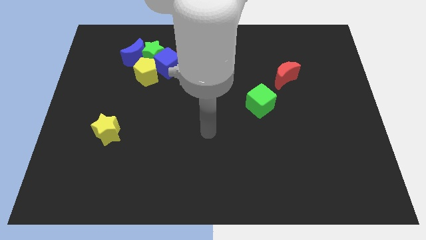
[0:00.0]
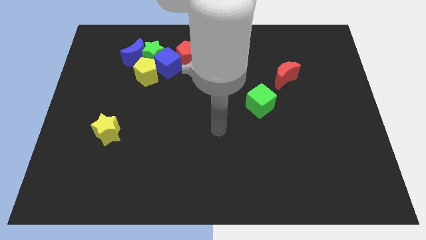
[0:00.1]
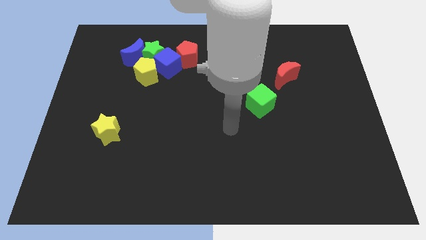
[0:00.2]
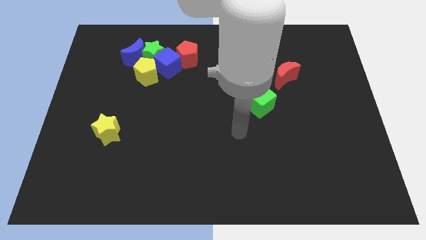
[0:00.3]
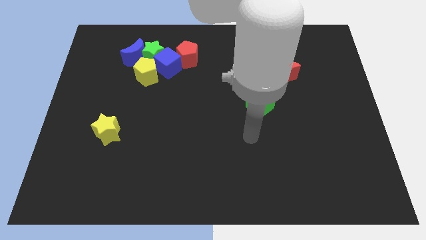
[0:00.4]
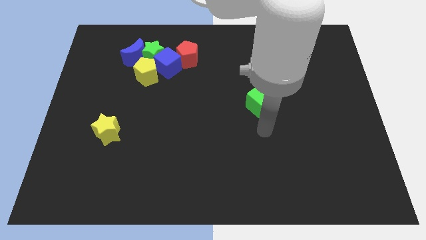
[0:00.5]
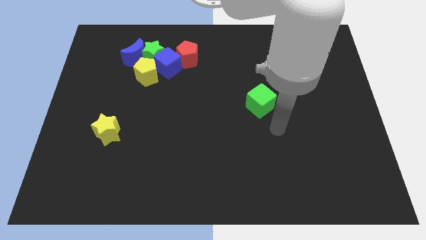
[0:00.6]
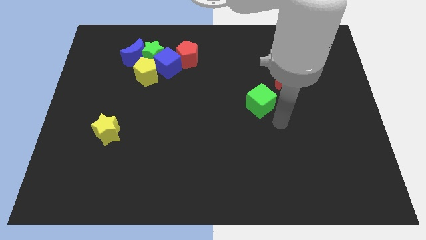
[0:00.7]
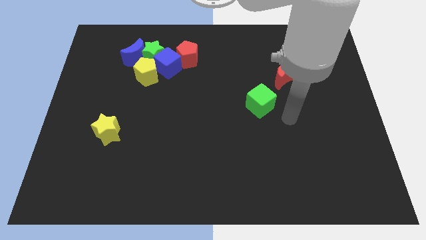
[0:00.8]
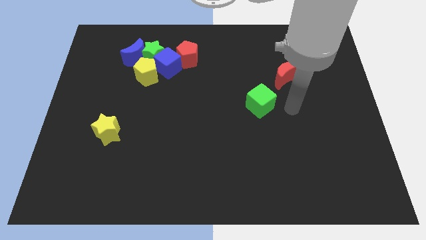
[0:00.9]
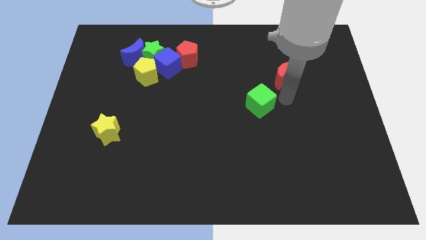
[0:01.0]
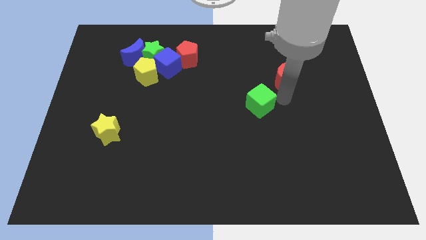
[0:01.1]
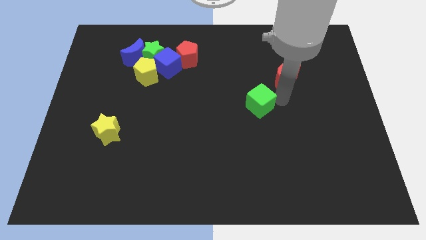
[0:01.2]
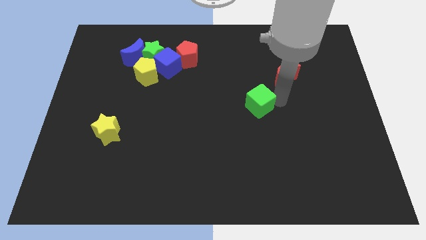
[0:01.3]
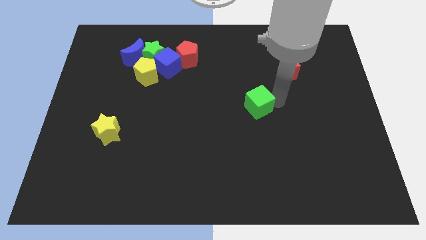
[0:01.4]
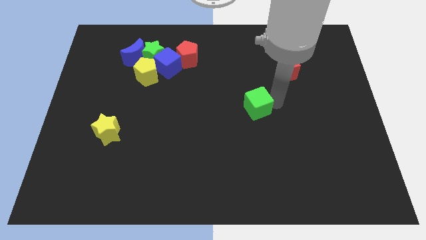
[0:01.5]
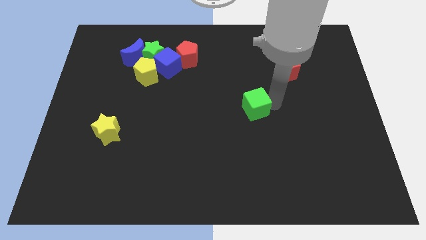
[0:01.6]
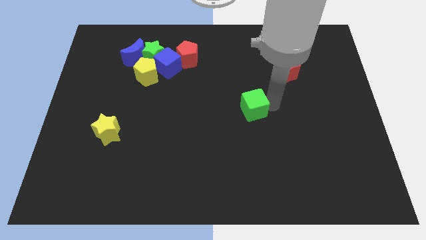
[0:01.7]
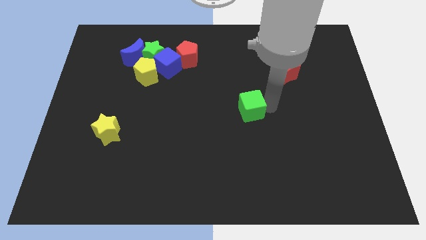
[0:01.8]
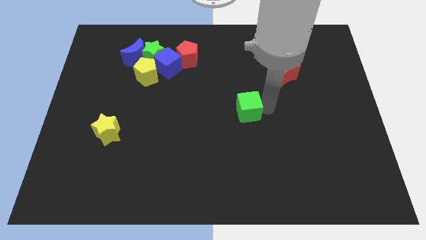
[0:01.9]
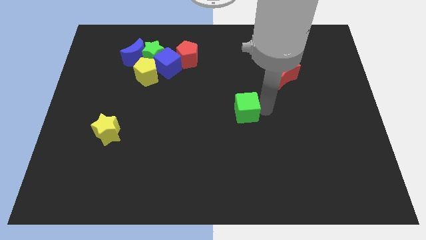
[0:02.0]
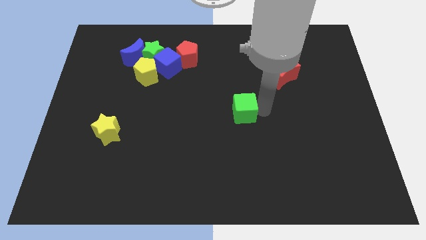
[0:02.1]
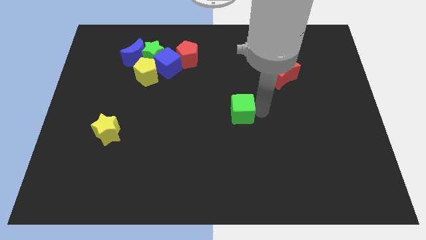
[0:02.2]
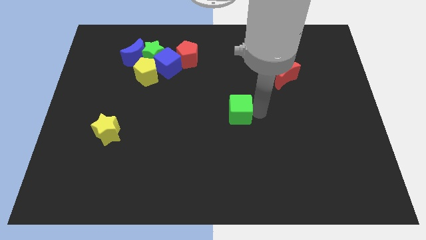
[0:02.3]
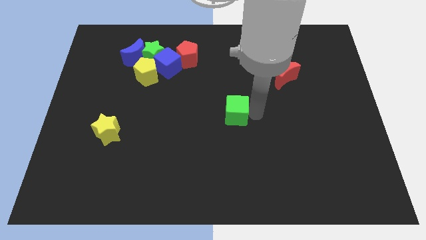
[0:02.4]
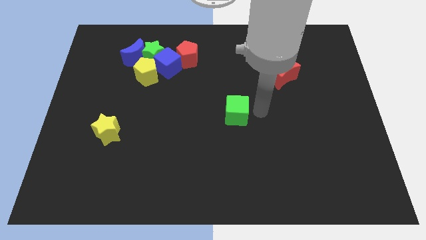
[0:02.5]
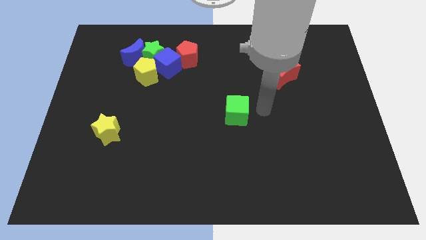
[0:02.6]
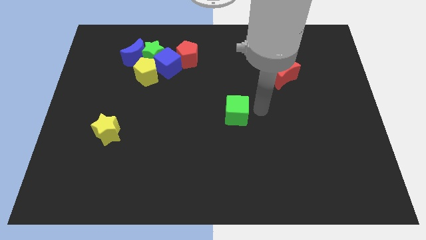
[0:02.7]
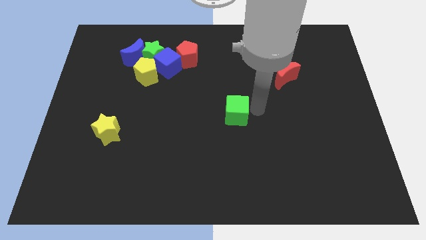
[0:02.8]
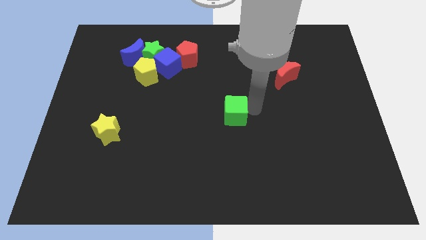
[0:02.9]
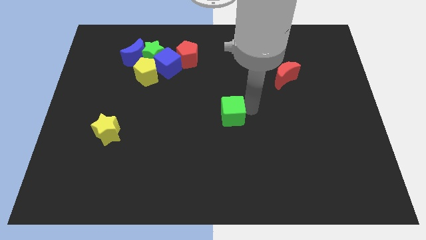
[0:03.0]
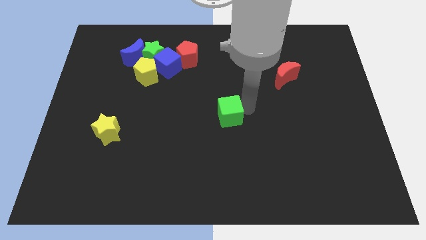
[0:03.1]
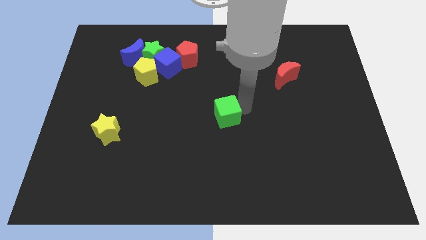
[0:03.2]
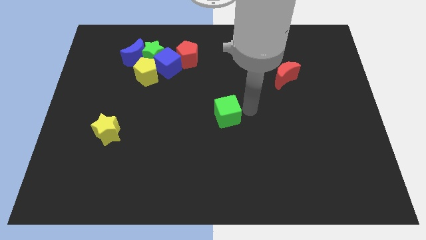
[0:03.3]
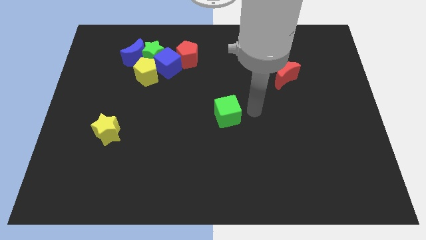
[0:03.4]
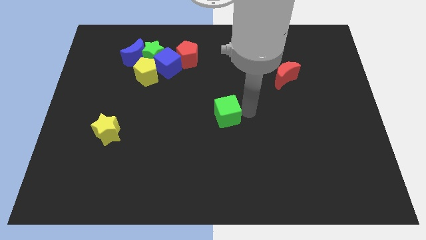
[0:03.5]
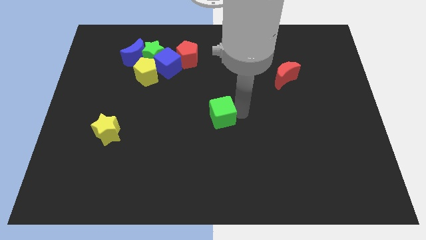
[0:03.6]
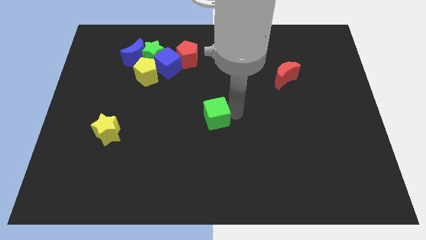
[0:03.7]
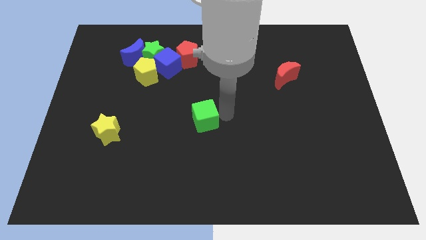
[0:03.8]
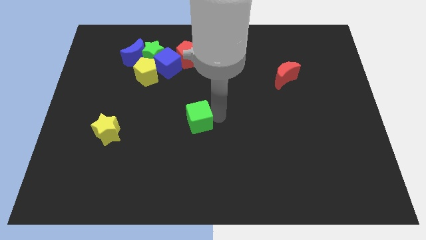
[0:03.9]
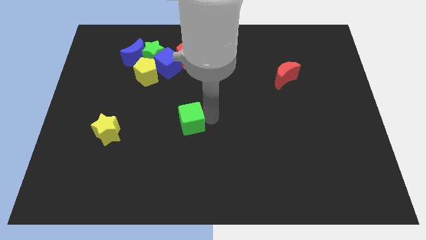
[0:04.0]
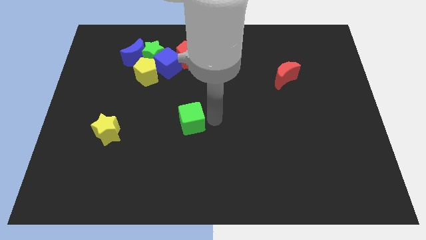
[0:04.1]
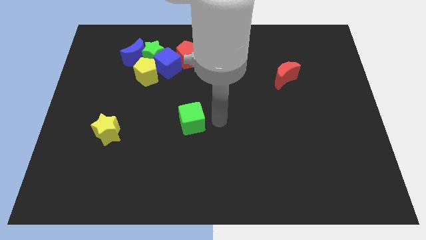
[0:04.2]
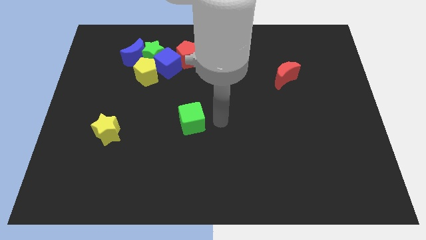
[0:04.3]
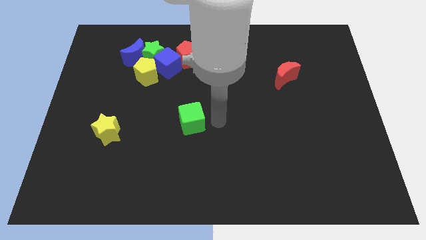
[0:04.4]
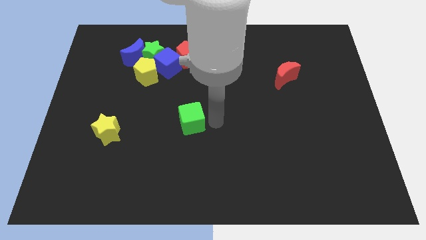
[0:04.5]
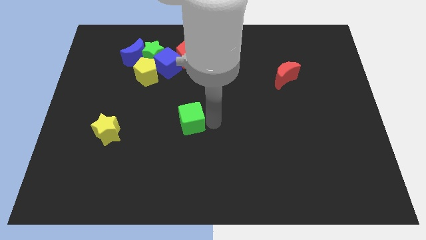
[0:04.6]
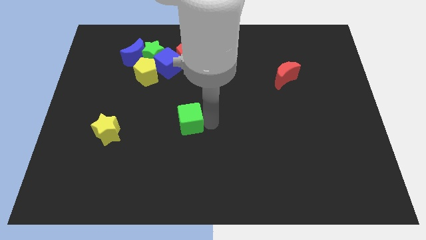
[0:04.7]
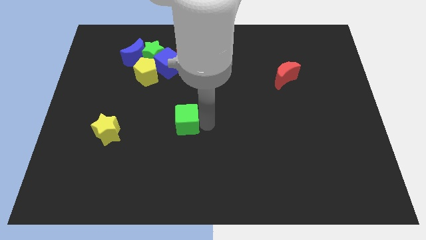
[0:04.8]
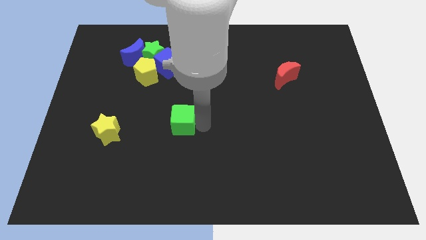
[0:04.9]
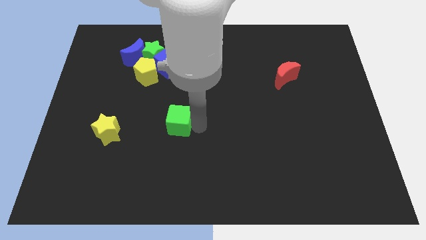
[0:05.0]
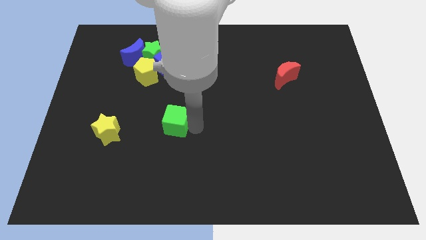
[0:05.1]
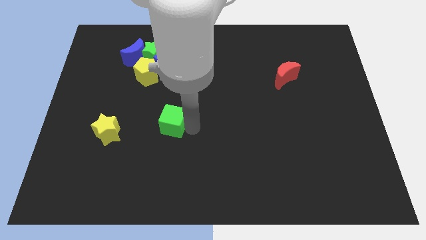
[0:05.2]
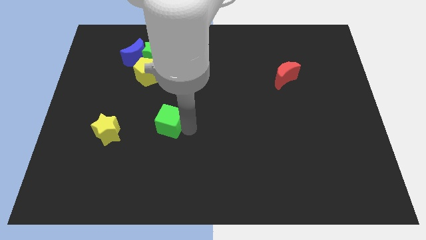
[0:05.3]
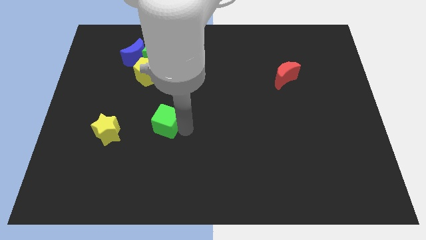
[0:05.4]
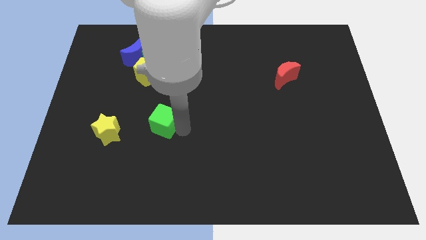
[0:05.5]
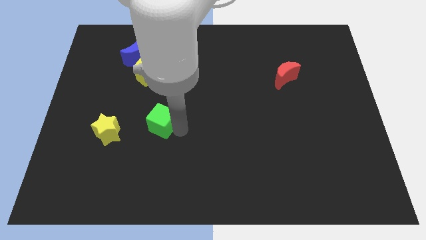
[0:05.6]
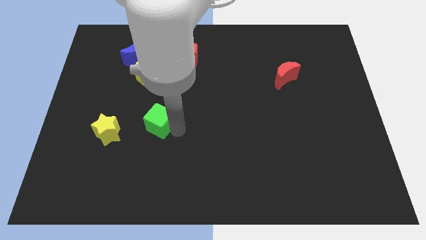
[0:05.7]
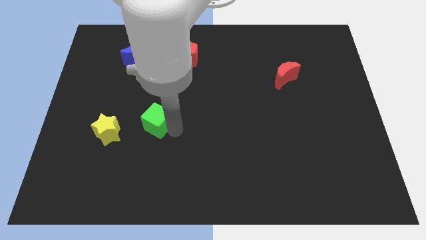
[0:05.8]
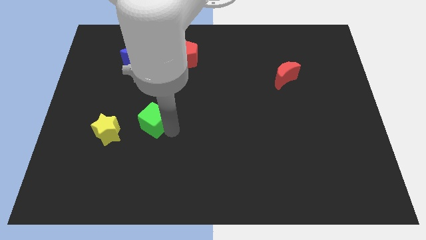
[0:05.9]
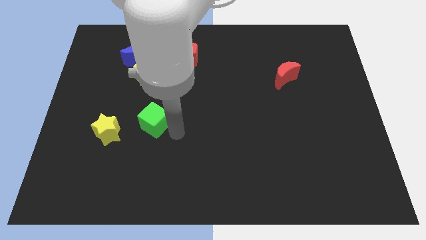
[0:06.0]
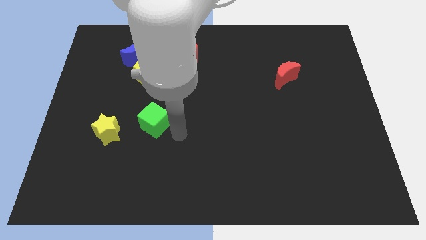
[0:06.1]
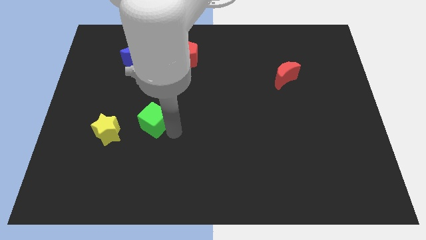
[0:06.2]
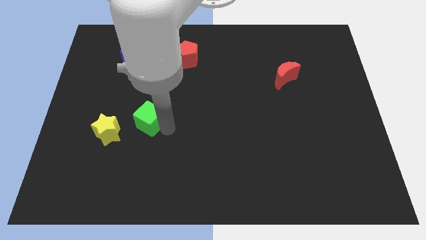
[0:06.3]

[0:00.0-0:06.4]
slide the green cube to the top right of the yellow star

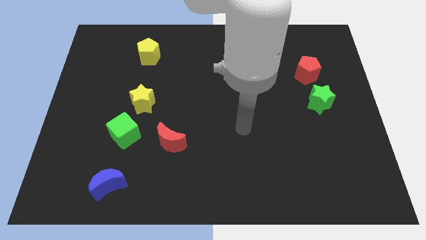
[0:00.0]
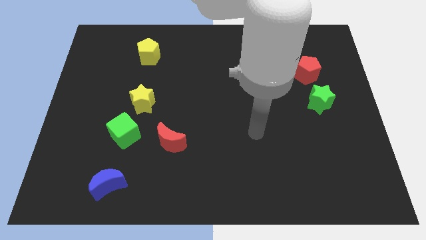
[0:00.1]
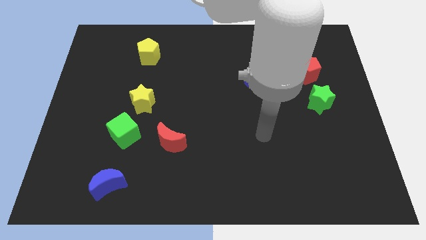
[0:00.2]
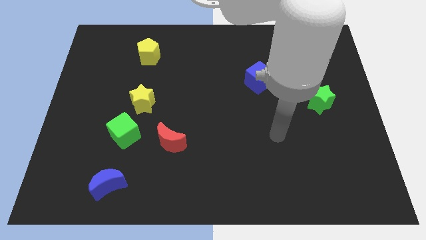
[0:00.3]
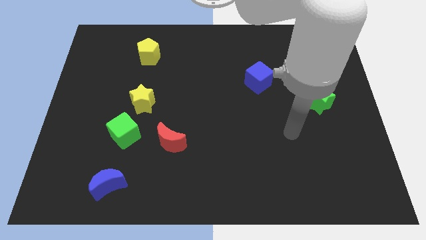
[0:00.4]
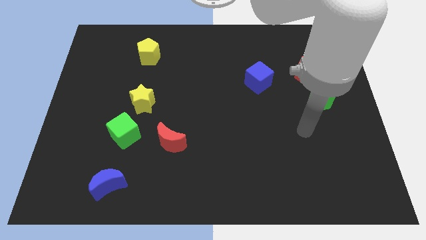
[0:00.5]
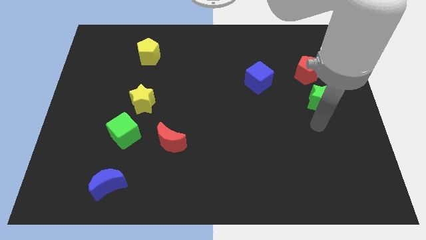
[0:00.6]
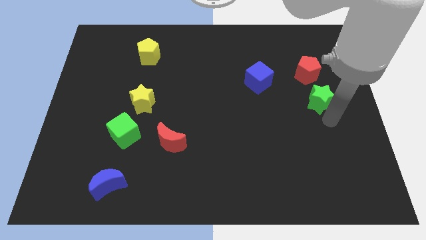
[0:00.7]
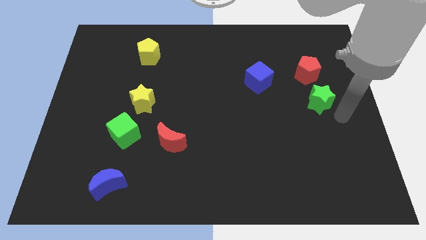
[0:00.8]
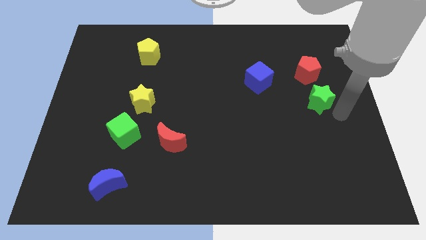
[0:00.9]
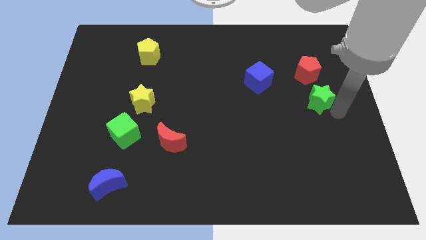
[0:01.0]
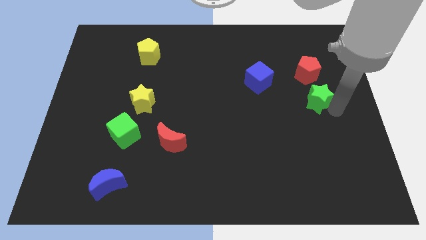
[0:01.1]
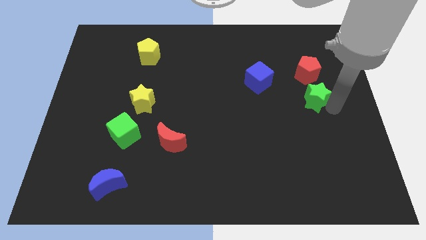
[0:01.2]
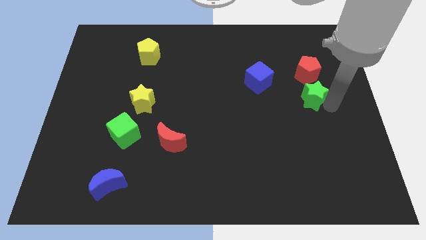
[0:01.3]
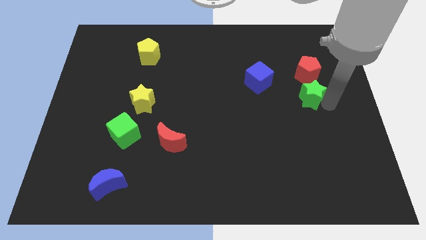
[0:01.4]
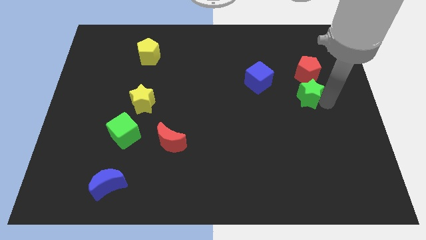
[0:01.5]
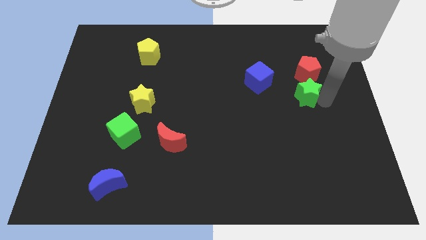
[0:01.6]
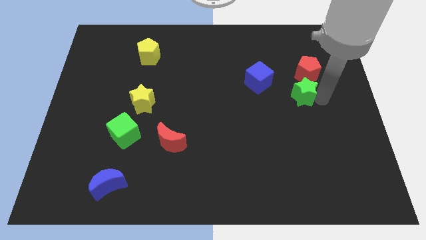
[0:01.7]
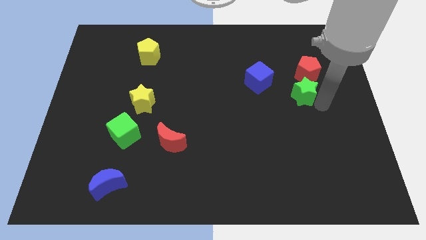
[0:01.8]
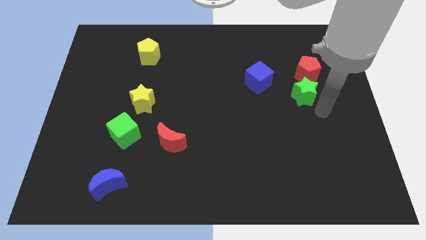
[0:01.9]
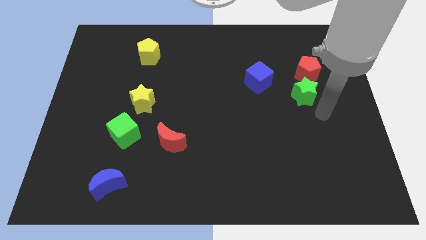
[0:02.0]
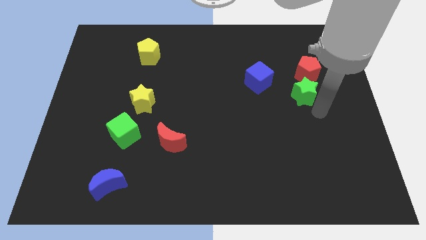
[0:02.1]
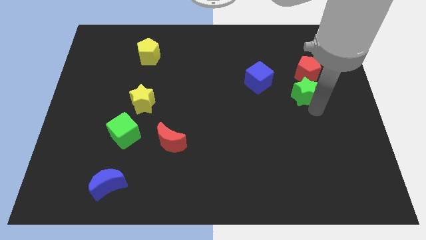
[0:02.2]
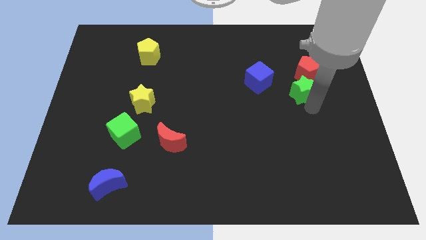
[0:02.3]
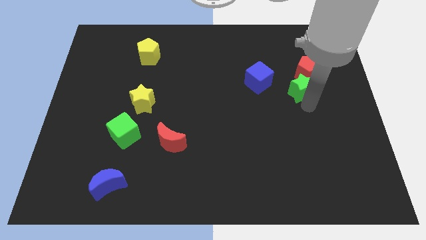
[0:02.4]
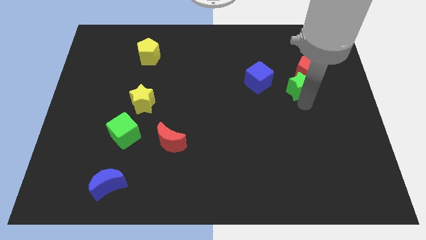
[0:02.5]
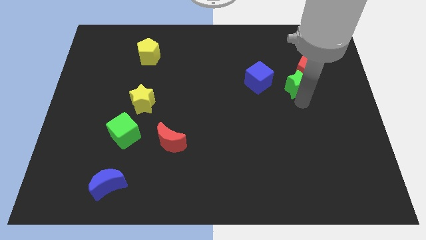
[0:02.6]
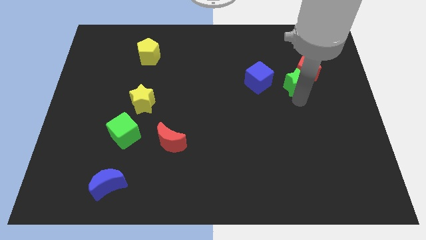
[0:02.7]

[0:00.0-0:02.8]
push the green star to the left side of the red pentagon
